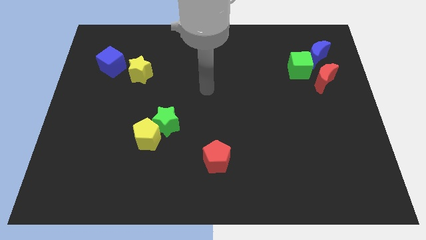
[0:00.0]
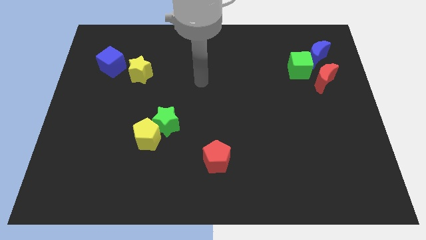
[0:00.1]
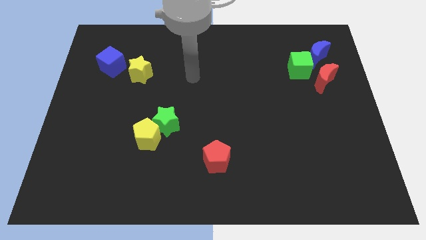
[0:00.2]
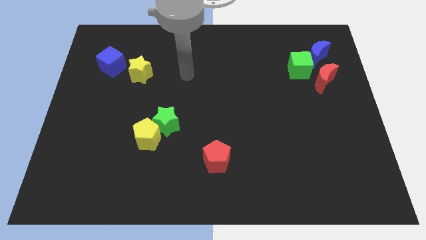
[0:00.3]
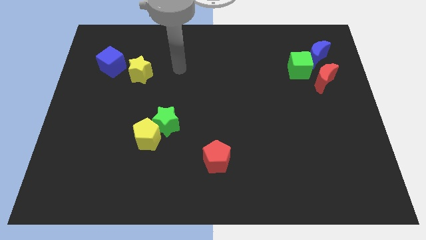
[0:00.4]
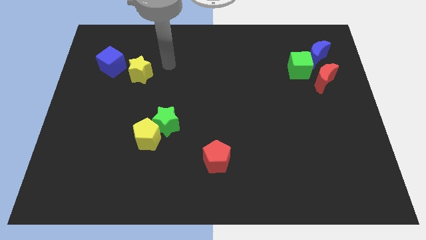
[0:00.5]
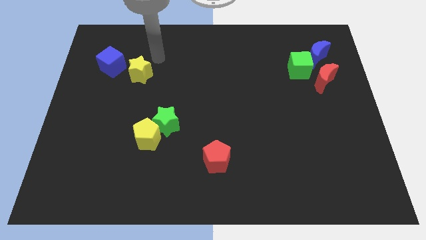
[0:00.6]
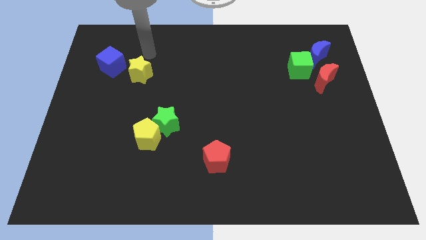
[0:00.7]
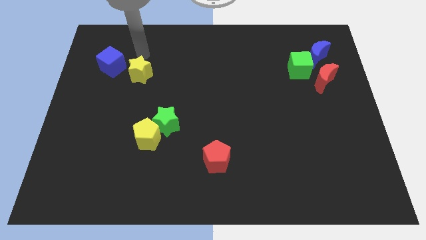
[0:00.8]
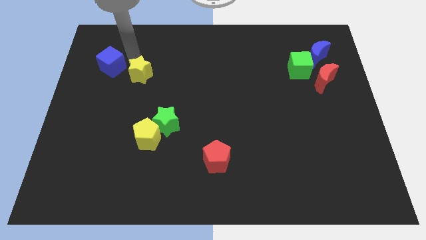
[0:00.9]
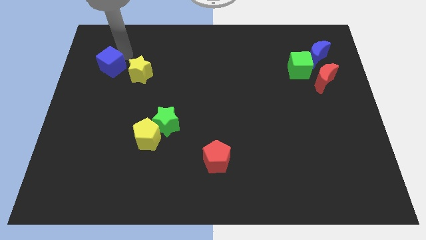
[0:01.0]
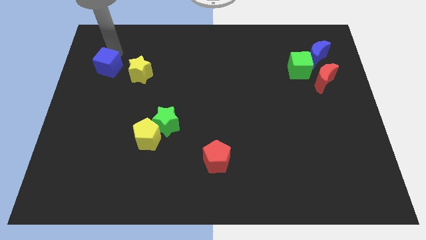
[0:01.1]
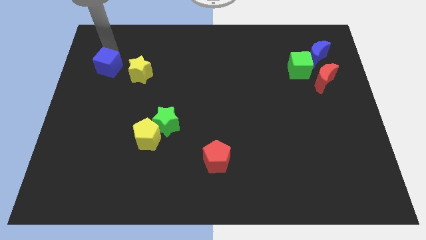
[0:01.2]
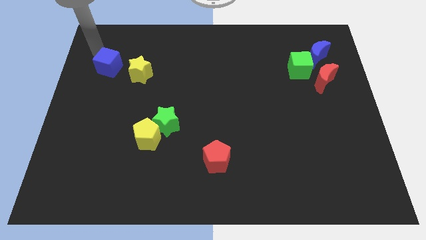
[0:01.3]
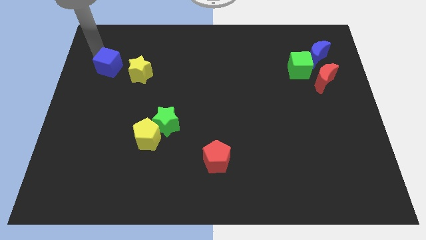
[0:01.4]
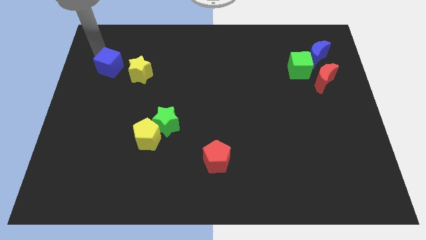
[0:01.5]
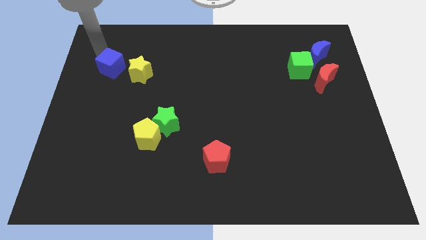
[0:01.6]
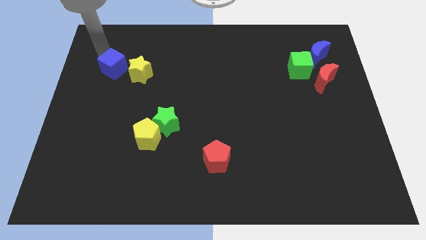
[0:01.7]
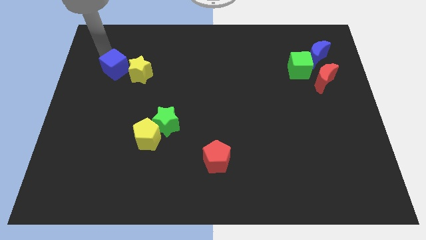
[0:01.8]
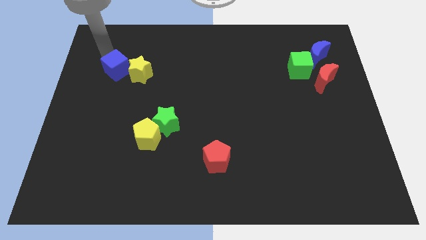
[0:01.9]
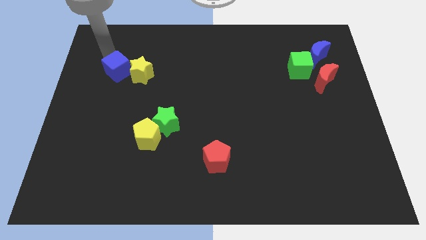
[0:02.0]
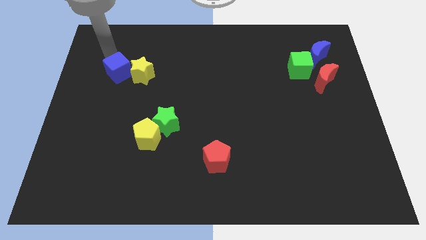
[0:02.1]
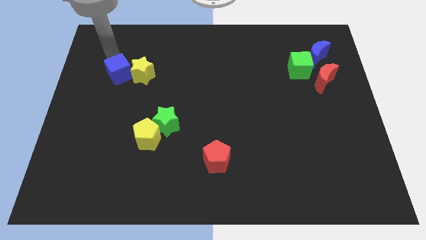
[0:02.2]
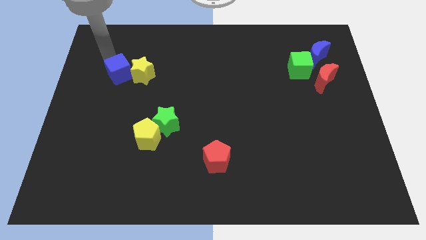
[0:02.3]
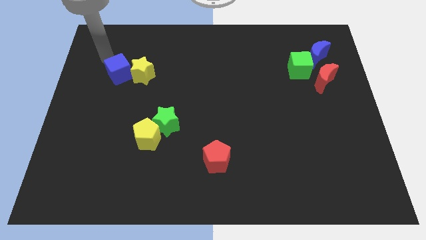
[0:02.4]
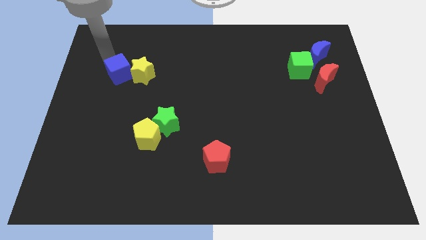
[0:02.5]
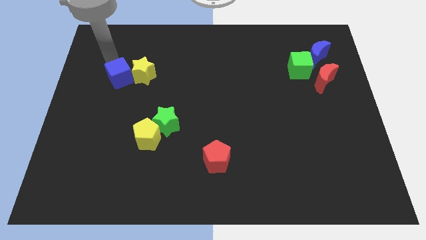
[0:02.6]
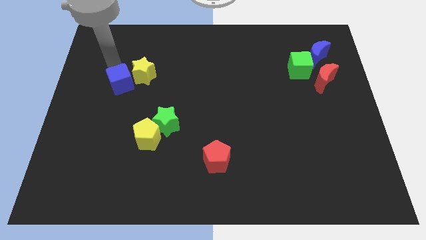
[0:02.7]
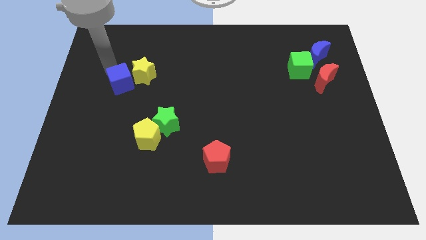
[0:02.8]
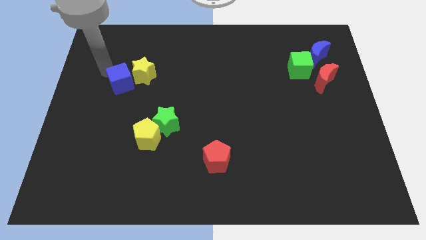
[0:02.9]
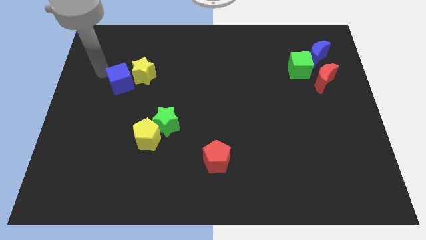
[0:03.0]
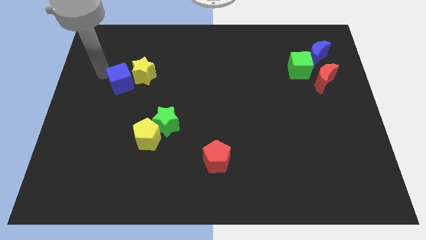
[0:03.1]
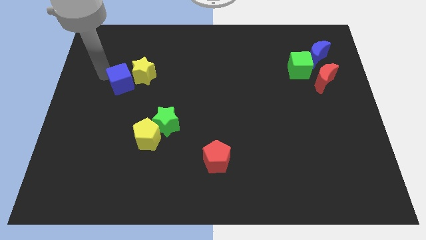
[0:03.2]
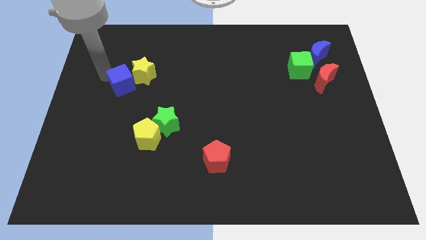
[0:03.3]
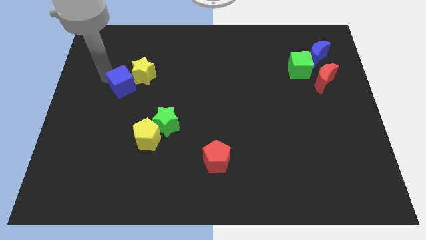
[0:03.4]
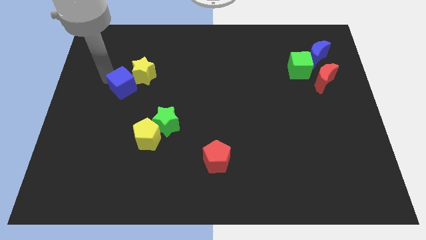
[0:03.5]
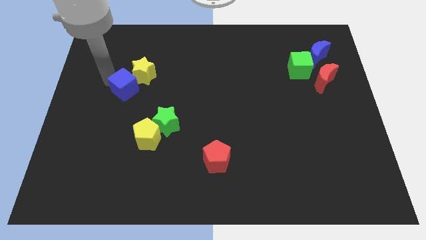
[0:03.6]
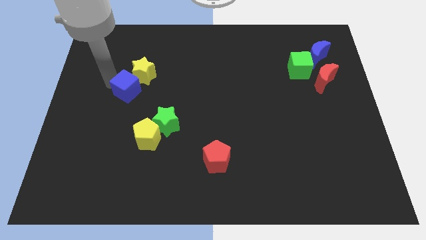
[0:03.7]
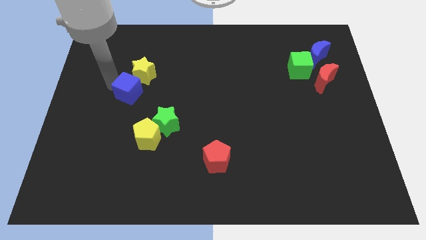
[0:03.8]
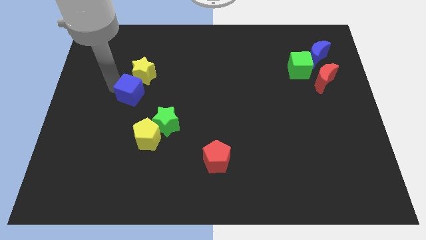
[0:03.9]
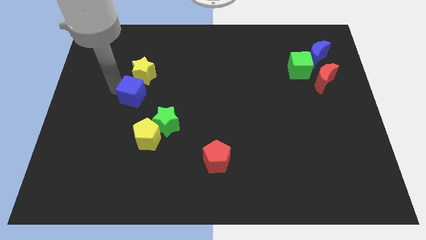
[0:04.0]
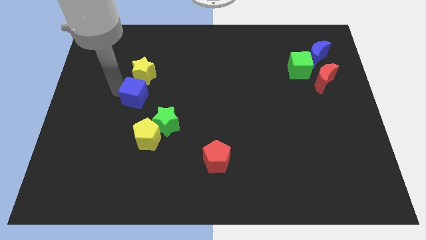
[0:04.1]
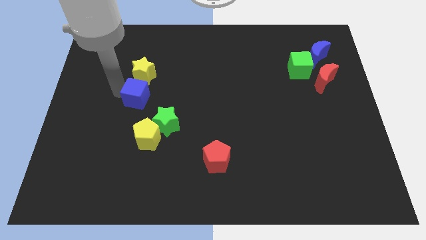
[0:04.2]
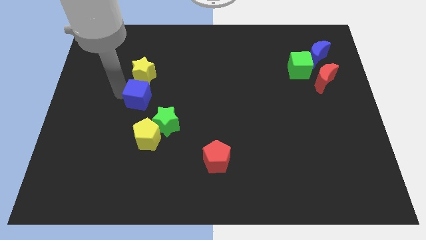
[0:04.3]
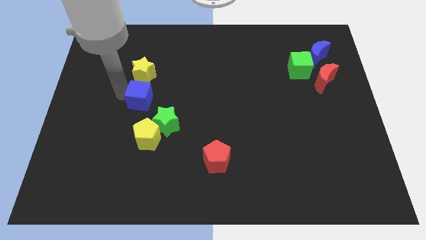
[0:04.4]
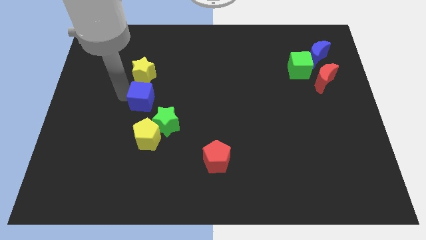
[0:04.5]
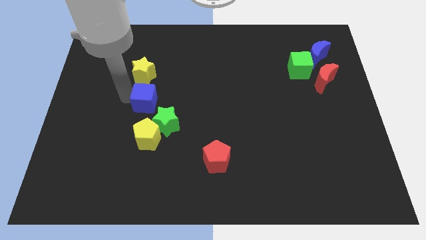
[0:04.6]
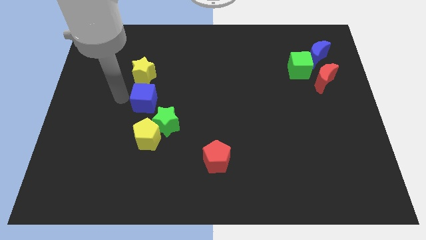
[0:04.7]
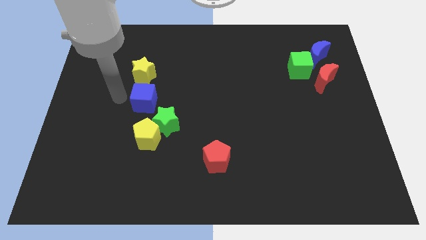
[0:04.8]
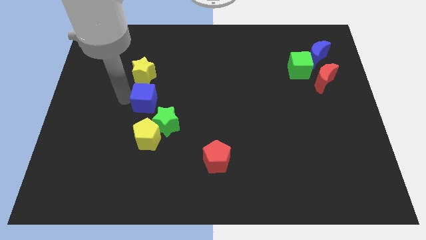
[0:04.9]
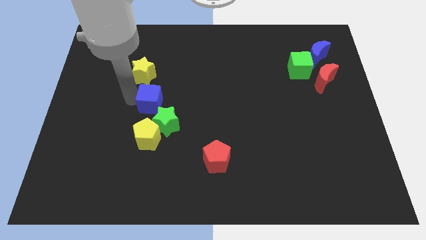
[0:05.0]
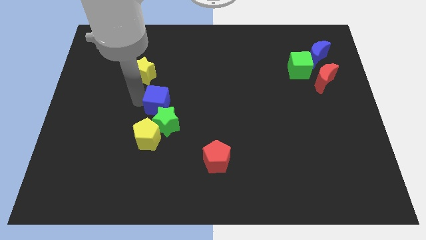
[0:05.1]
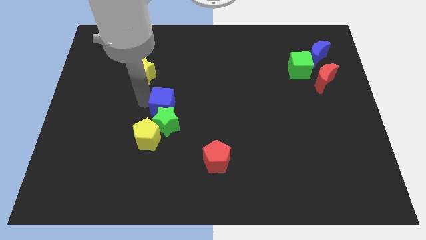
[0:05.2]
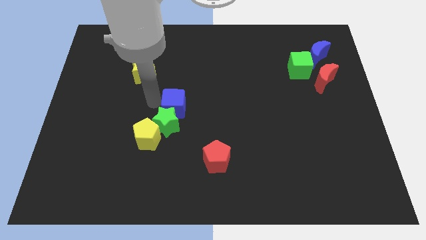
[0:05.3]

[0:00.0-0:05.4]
push the blue cube downwards and to the right diagonally

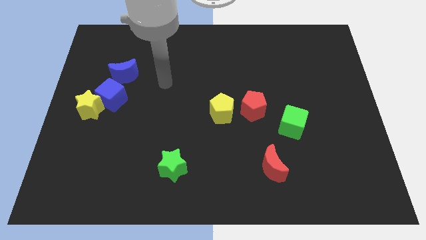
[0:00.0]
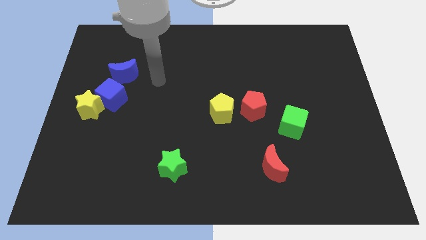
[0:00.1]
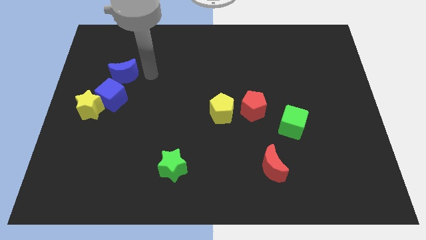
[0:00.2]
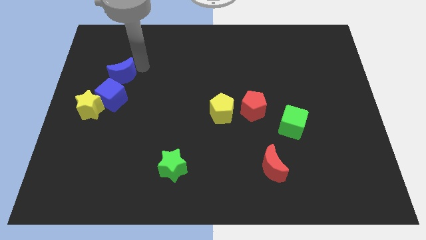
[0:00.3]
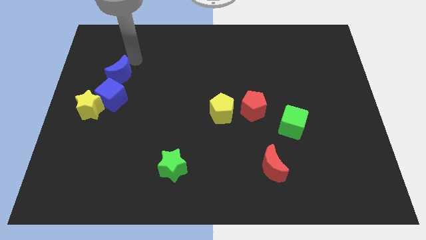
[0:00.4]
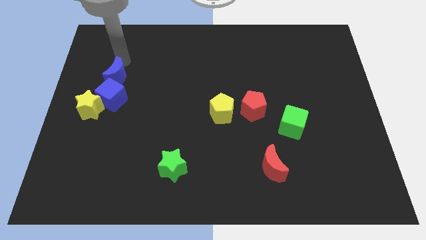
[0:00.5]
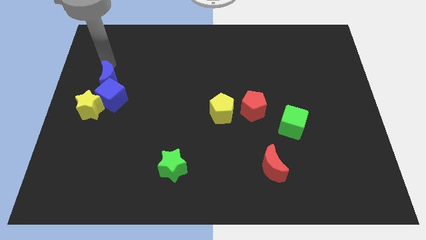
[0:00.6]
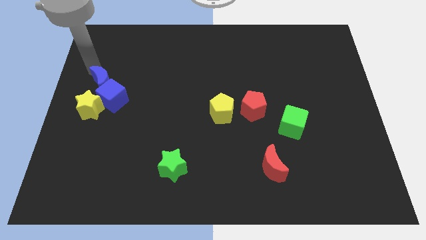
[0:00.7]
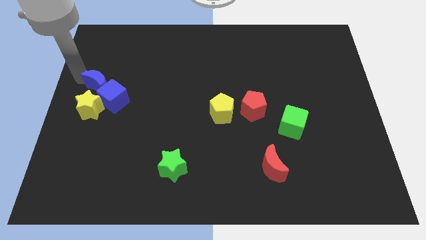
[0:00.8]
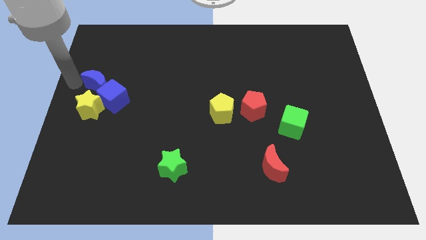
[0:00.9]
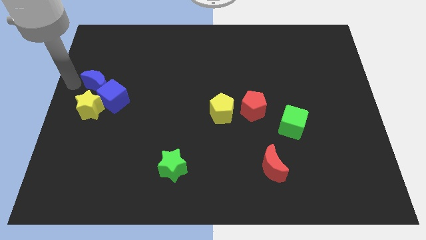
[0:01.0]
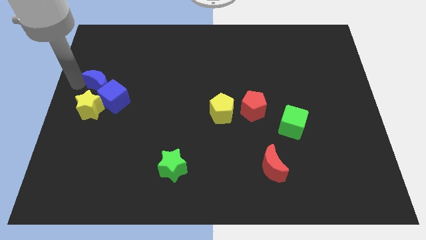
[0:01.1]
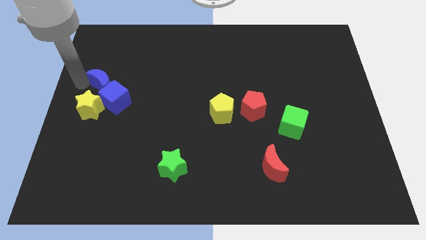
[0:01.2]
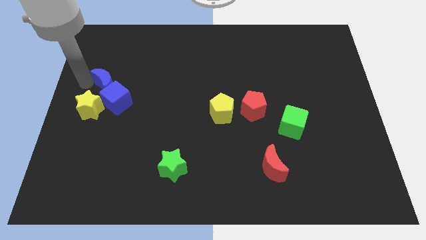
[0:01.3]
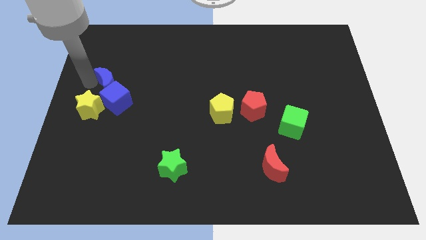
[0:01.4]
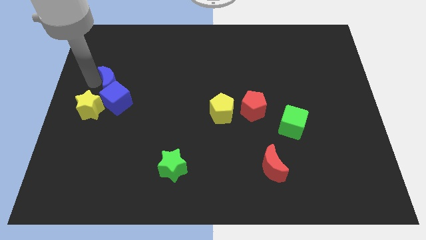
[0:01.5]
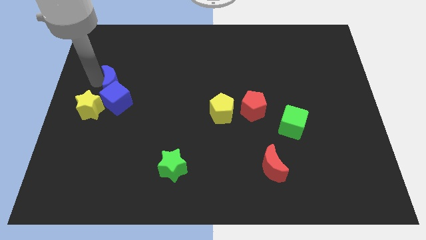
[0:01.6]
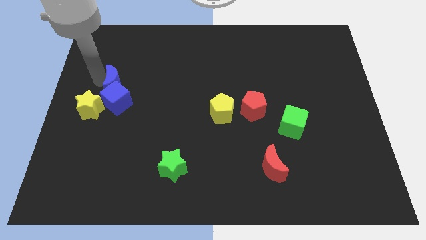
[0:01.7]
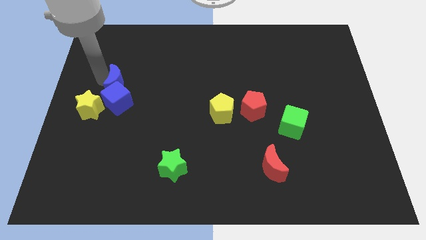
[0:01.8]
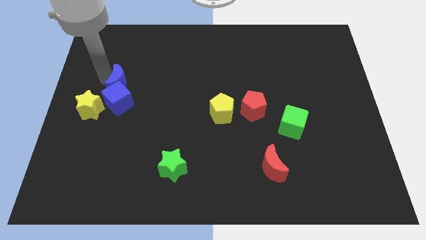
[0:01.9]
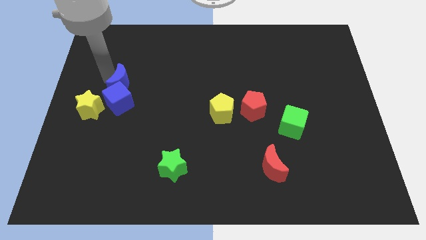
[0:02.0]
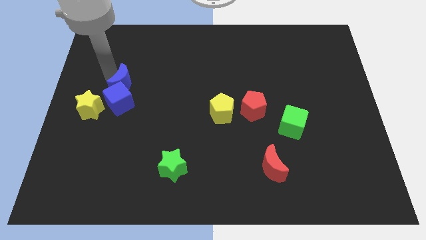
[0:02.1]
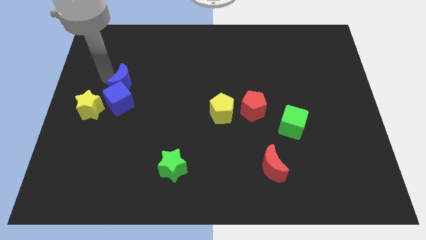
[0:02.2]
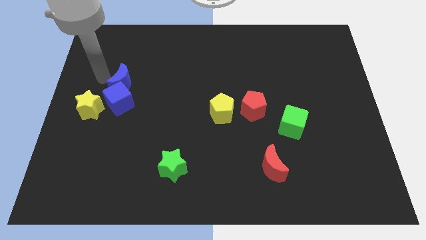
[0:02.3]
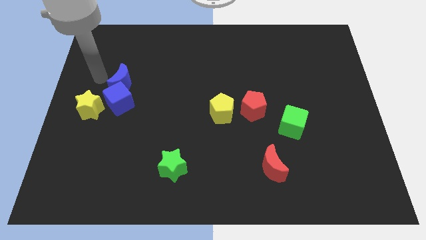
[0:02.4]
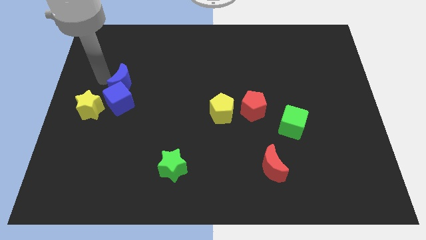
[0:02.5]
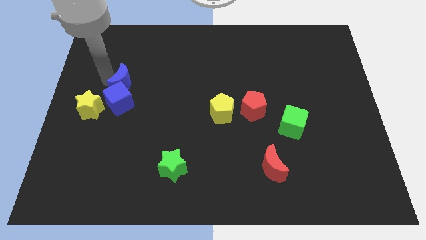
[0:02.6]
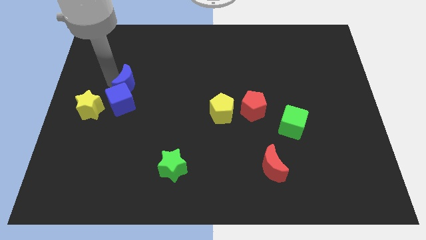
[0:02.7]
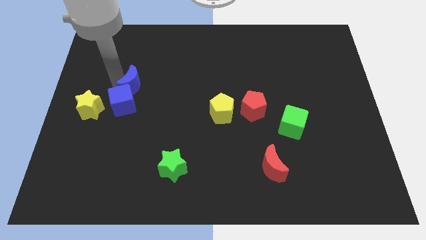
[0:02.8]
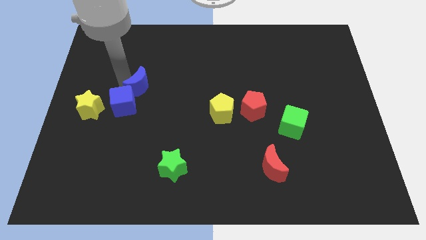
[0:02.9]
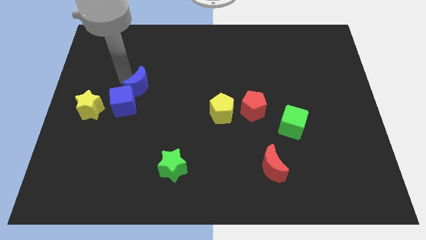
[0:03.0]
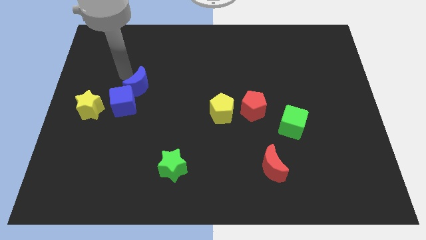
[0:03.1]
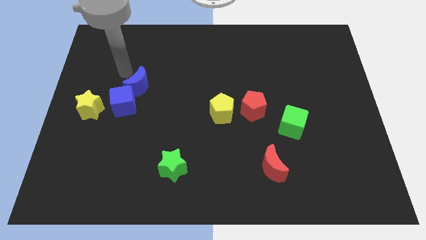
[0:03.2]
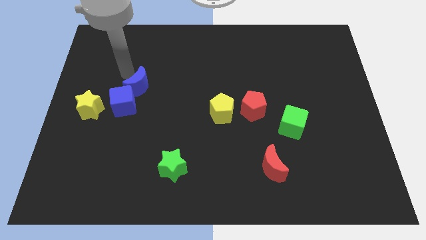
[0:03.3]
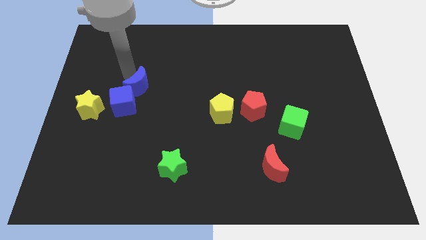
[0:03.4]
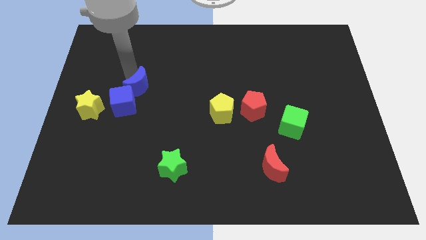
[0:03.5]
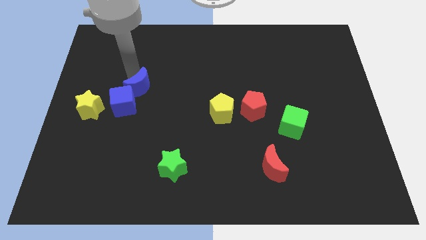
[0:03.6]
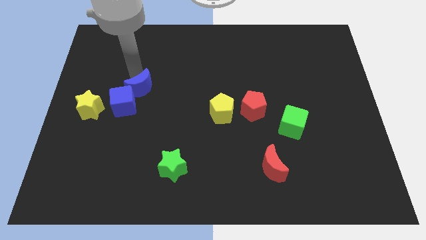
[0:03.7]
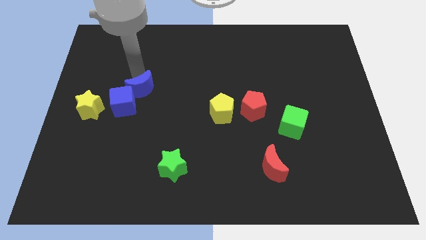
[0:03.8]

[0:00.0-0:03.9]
slide the blue moon slightly downwards and then right
